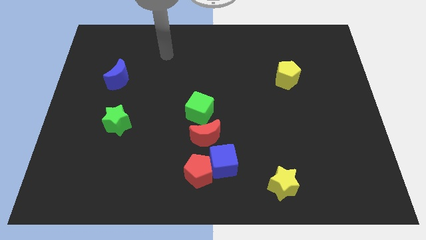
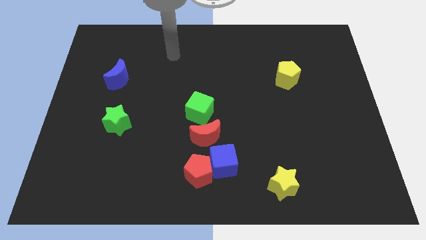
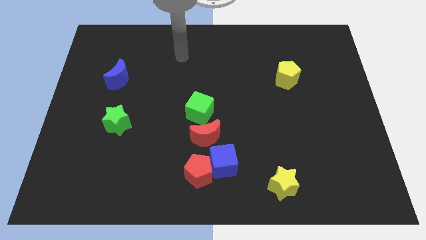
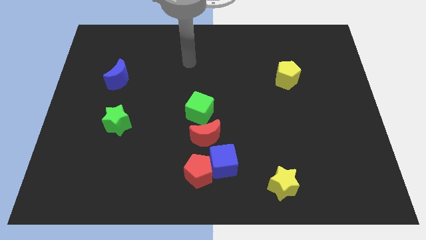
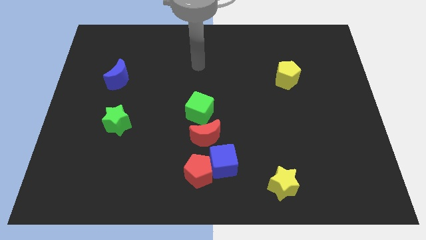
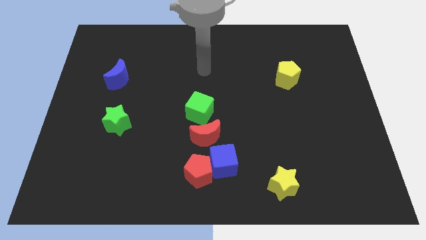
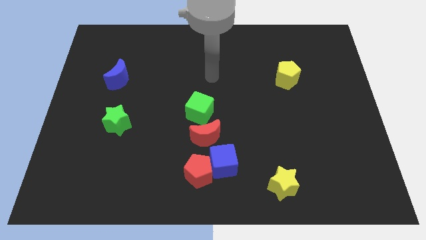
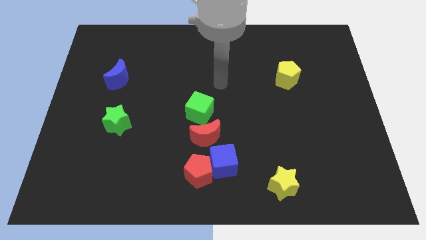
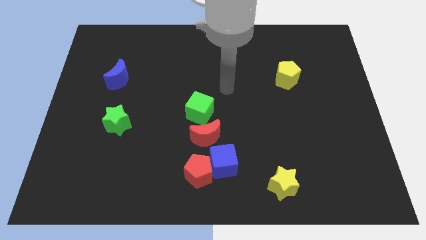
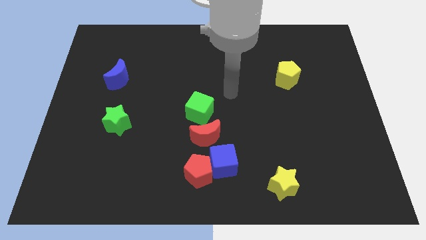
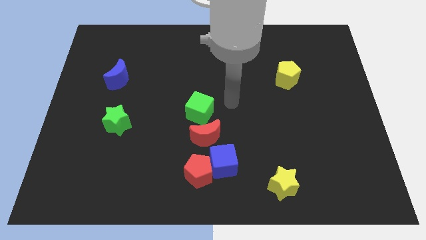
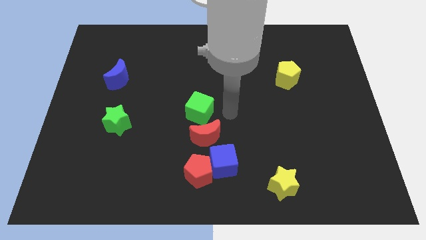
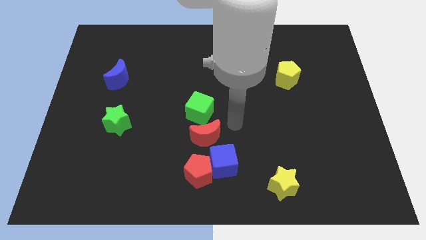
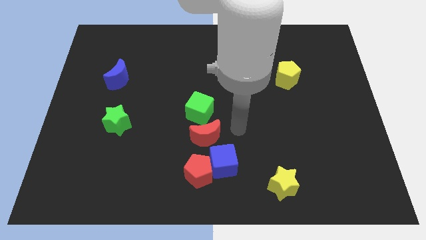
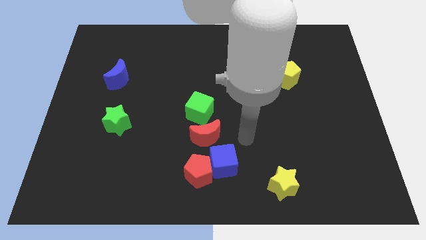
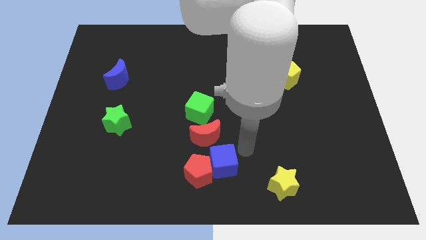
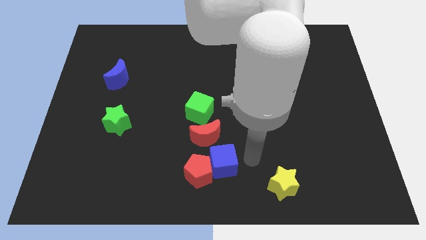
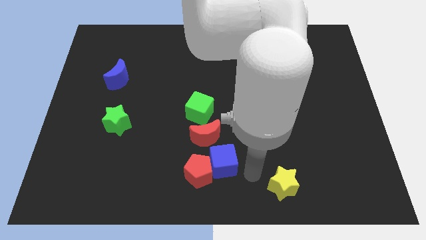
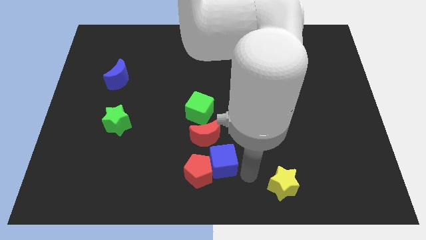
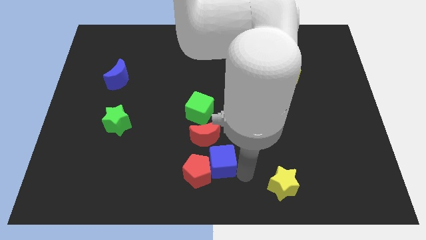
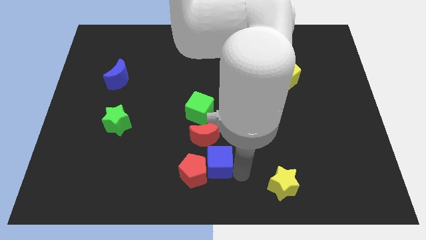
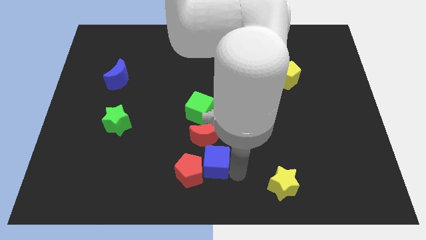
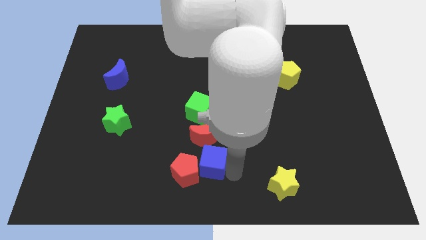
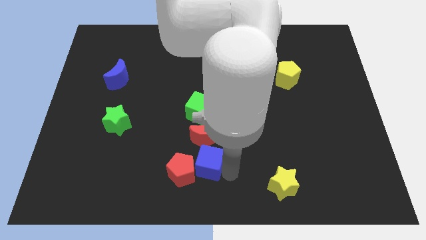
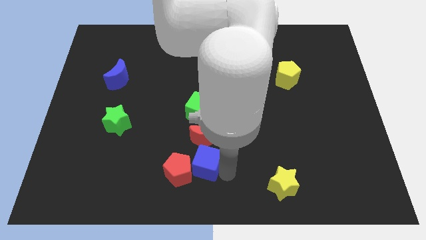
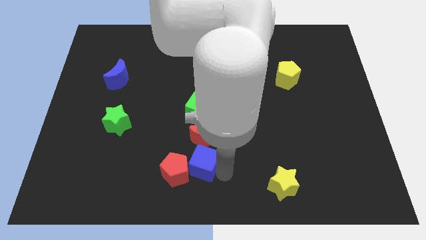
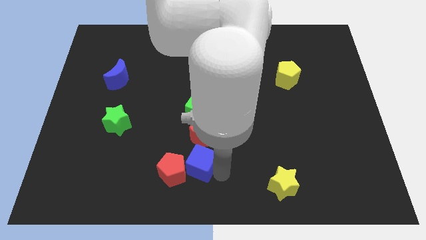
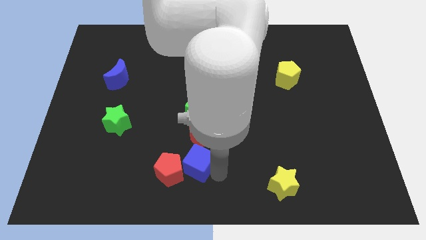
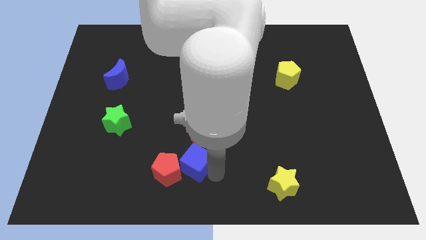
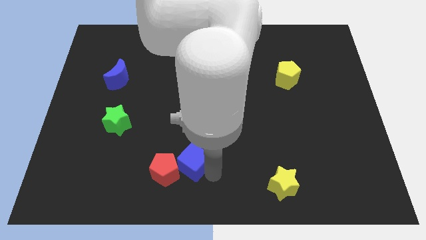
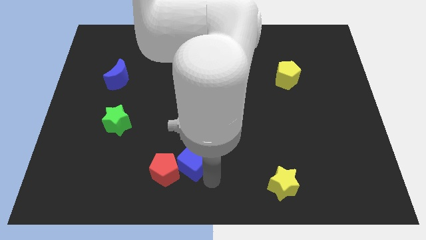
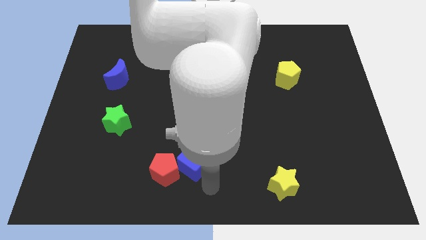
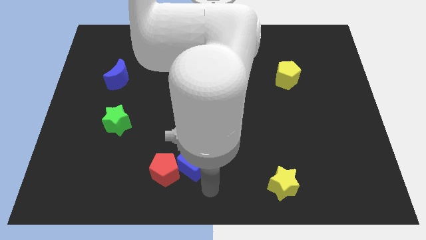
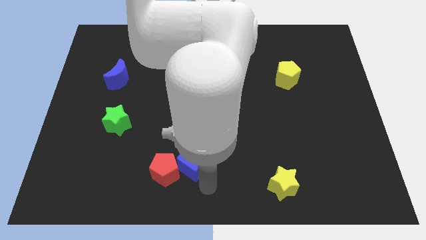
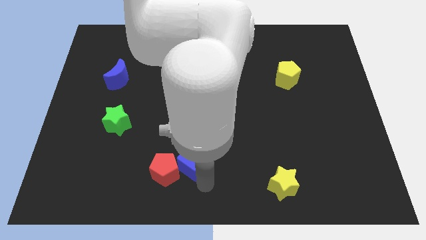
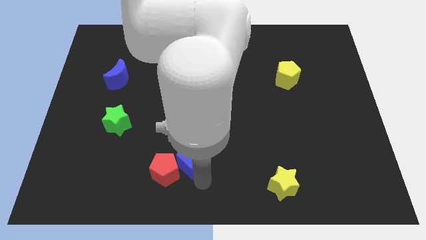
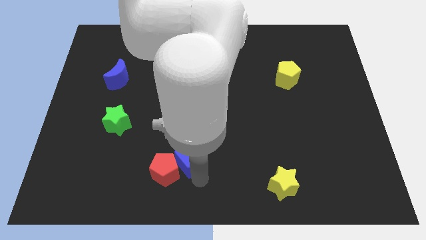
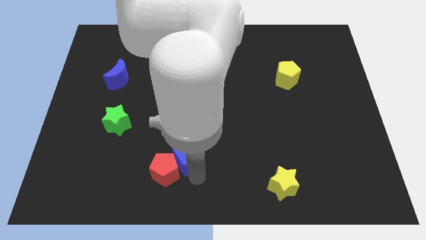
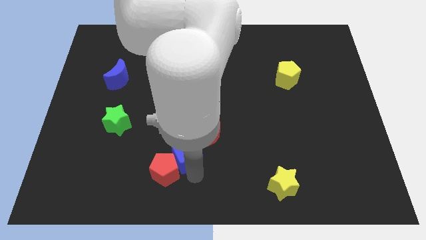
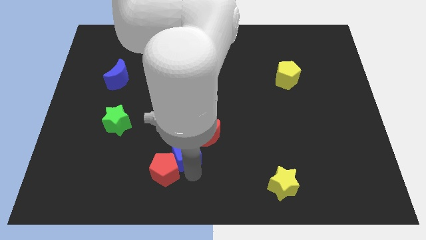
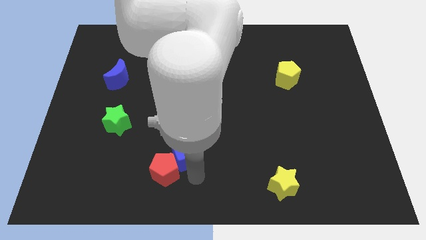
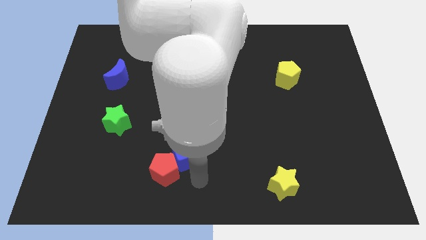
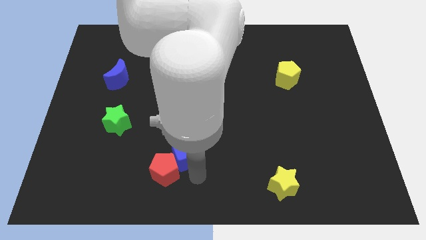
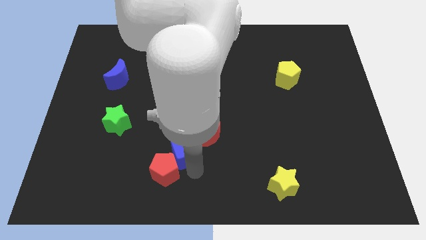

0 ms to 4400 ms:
slightly slide the blue cube upwards and to the left

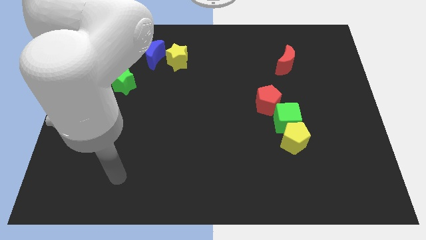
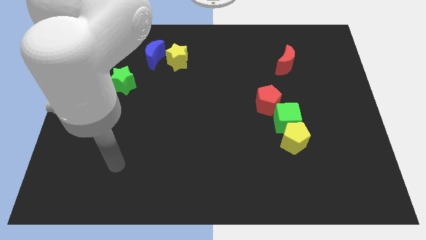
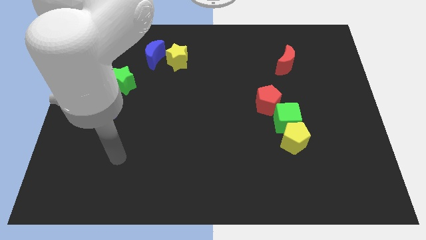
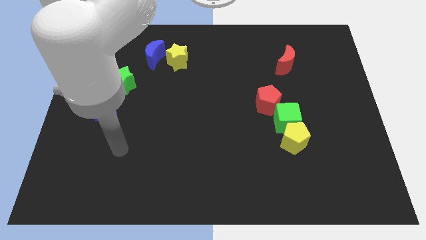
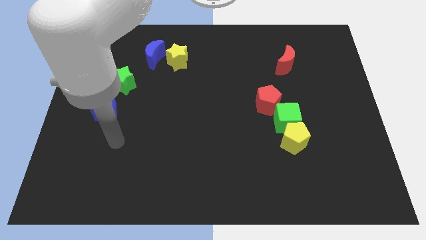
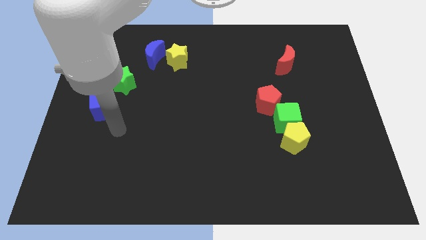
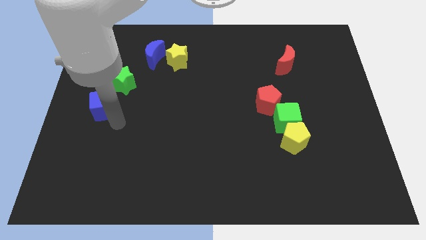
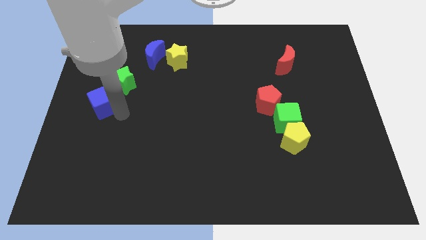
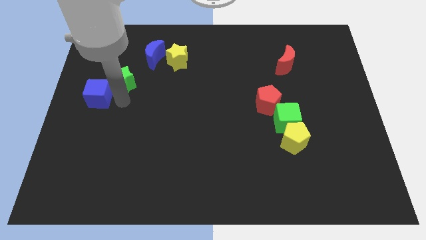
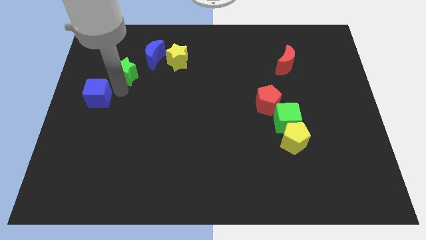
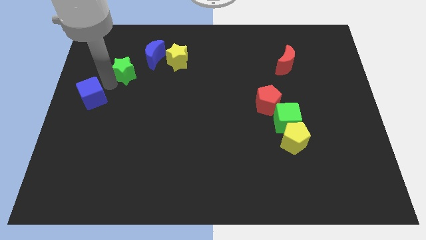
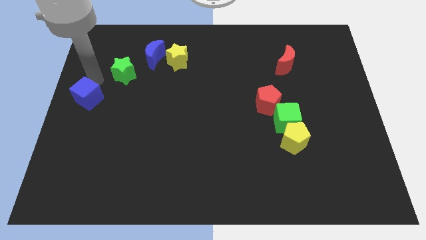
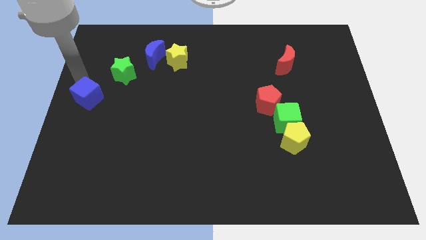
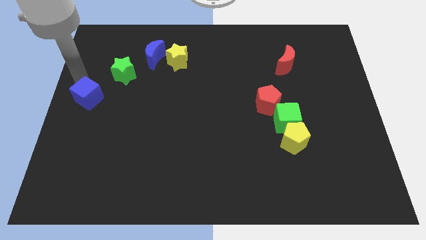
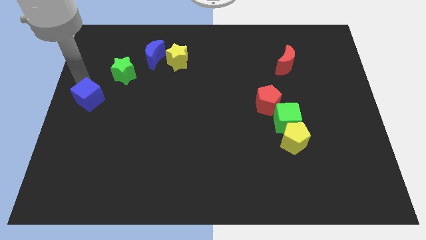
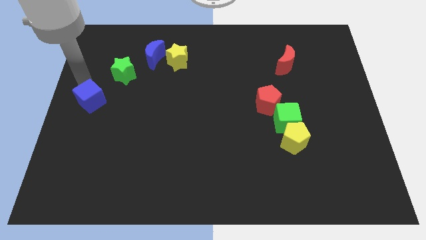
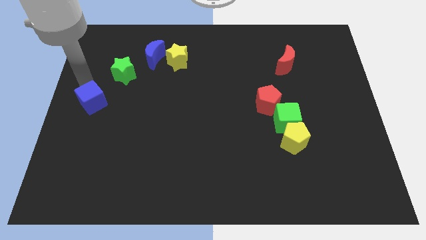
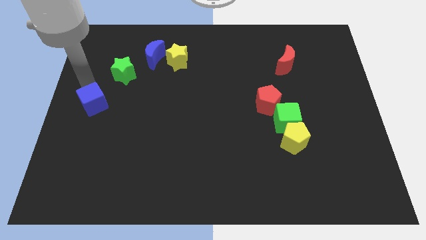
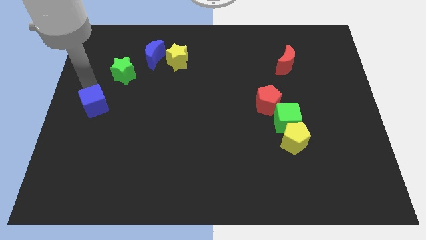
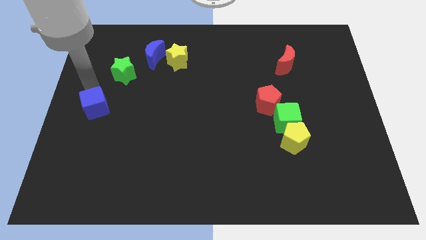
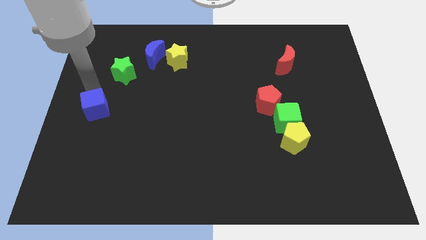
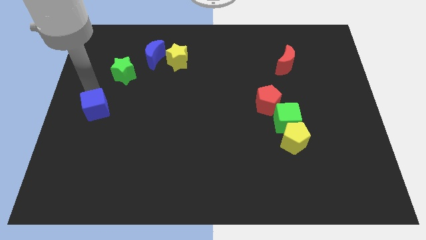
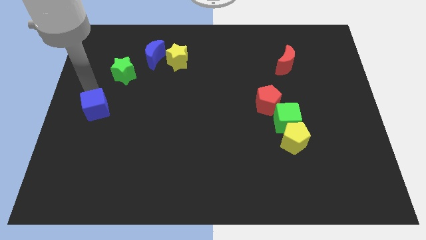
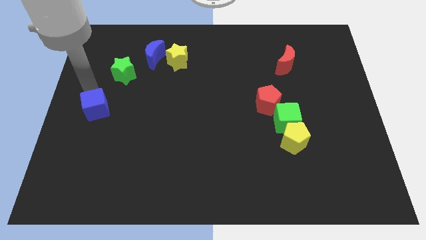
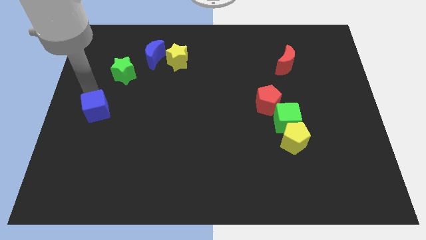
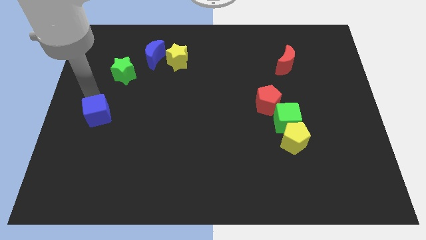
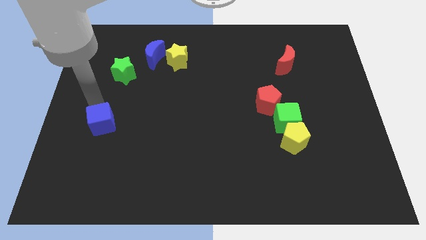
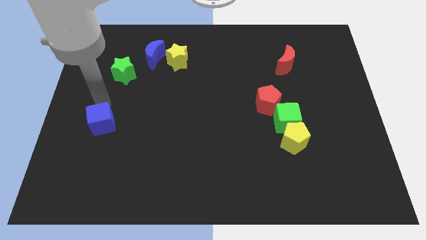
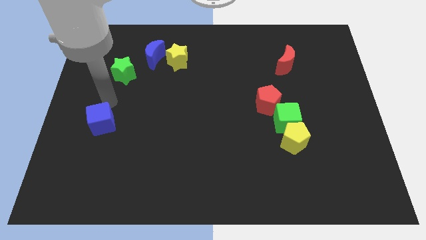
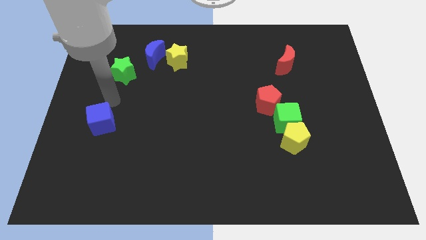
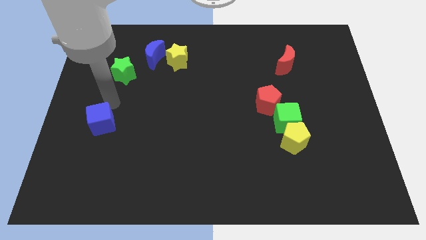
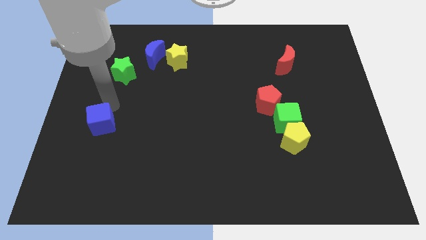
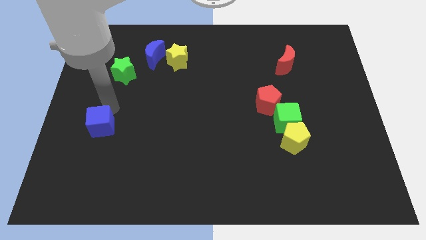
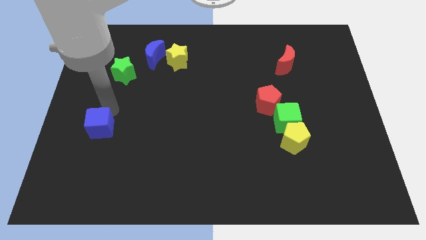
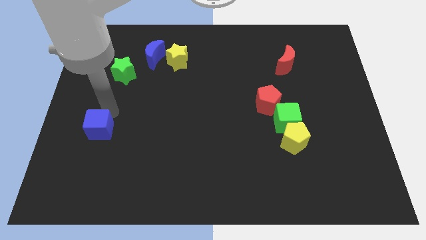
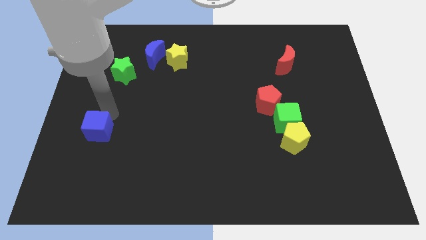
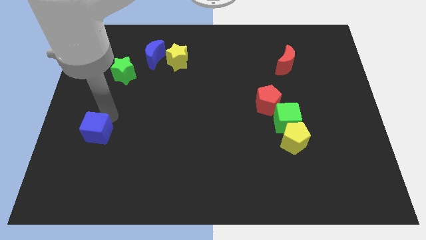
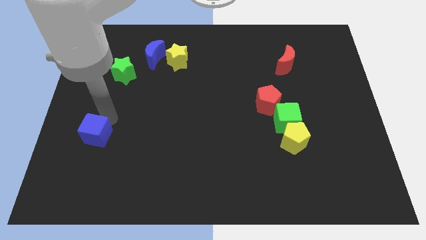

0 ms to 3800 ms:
slightly move the blue cube down
